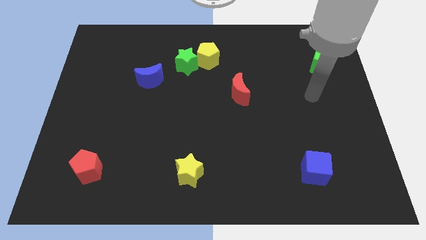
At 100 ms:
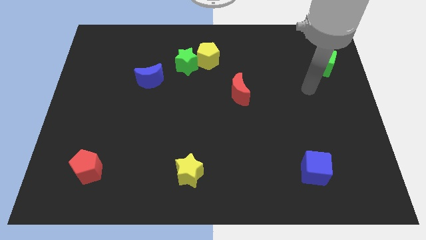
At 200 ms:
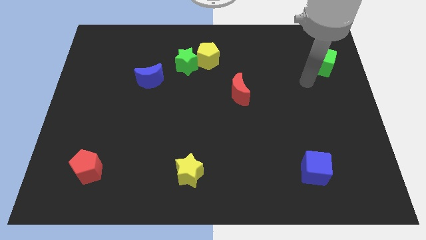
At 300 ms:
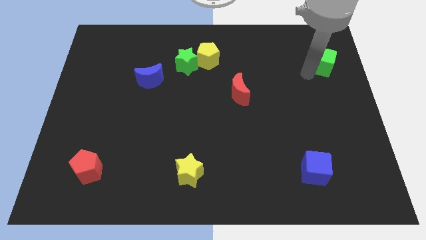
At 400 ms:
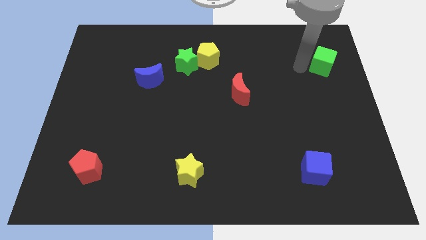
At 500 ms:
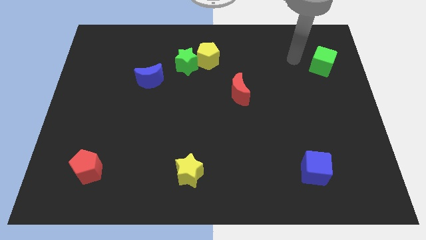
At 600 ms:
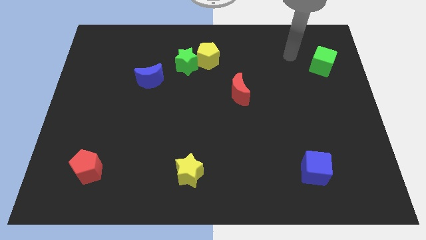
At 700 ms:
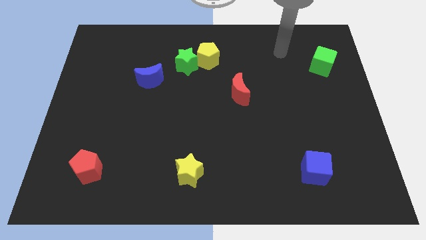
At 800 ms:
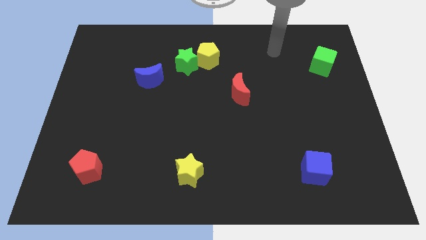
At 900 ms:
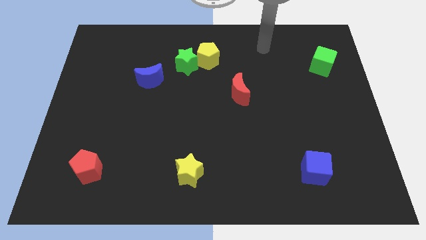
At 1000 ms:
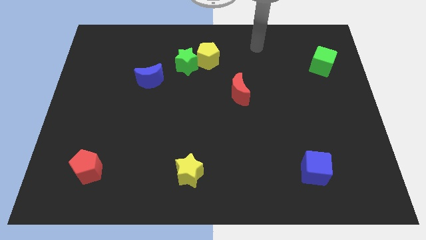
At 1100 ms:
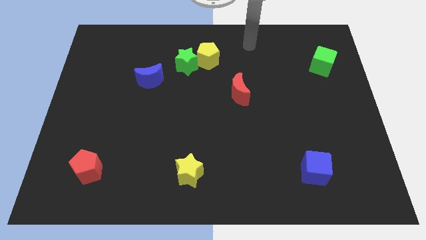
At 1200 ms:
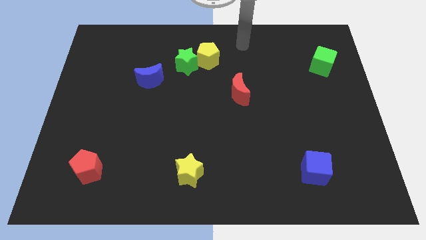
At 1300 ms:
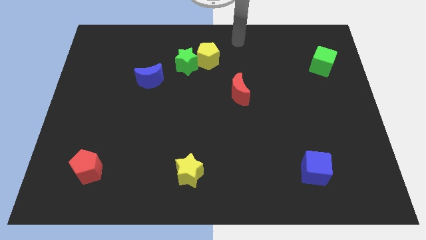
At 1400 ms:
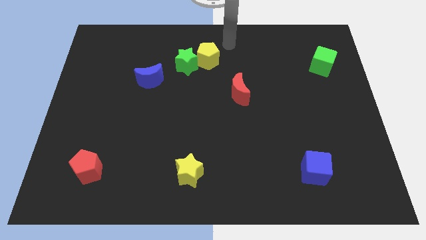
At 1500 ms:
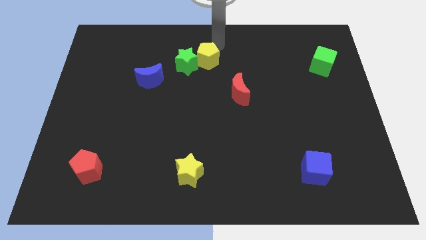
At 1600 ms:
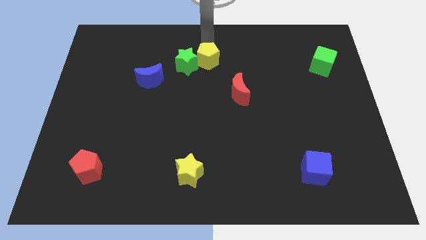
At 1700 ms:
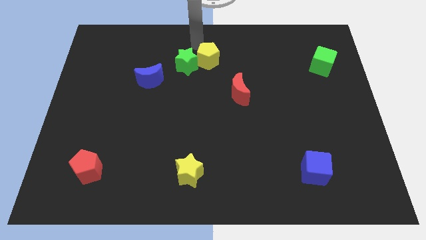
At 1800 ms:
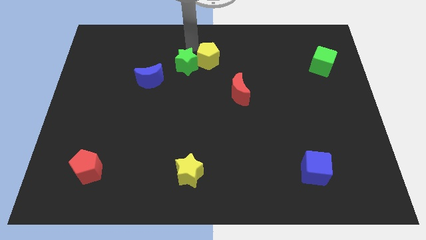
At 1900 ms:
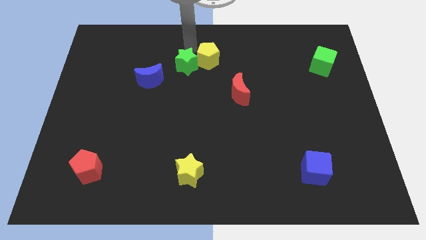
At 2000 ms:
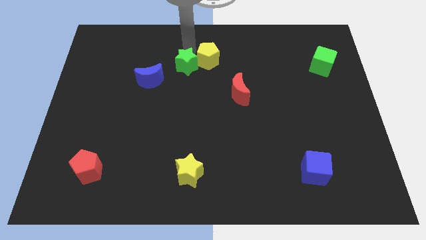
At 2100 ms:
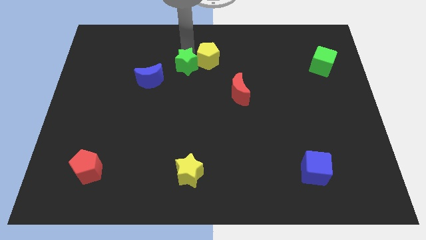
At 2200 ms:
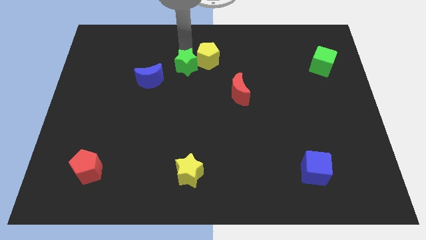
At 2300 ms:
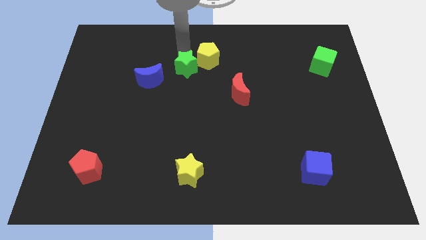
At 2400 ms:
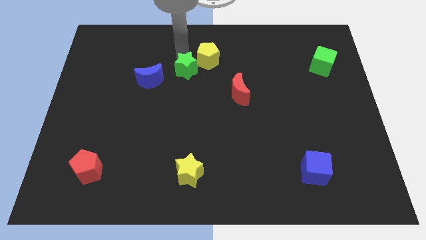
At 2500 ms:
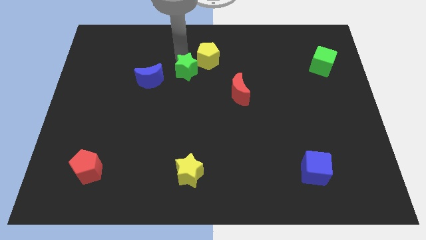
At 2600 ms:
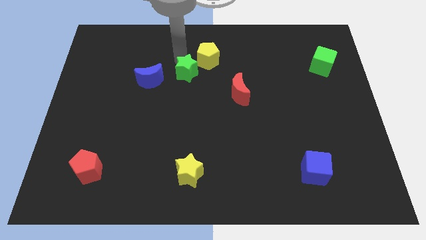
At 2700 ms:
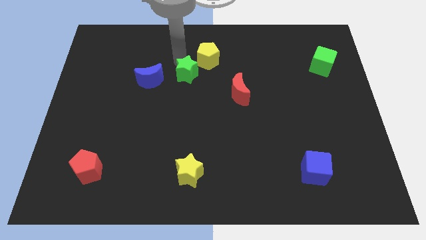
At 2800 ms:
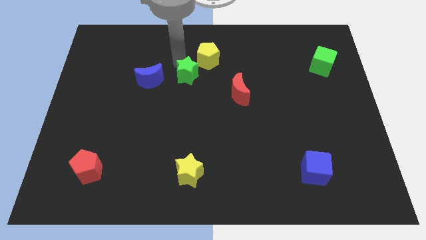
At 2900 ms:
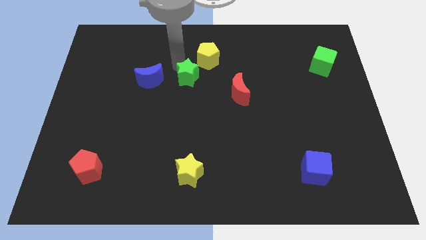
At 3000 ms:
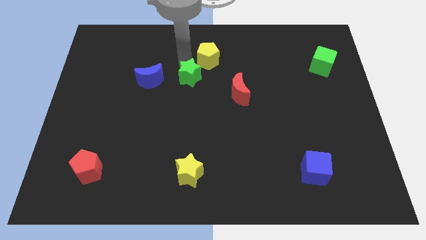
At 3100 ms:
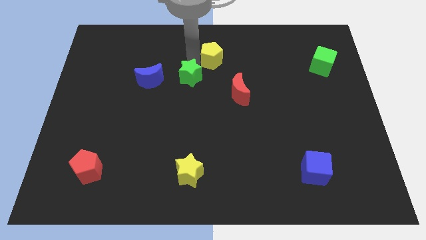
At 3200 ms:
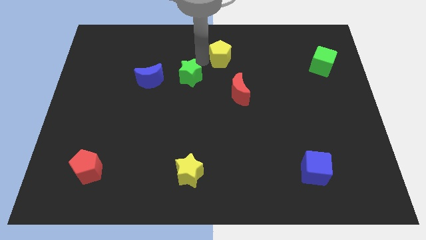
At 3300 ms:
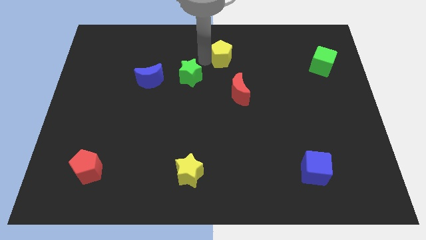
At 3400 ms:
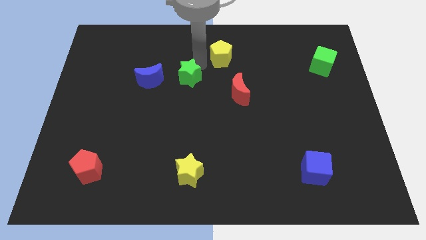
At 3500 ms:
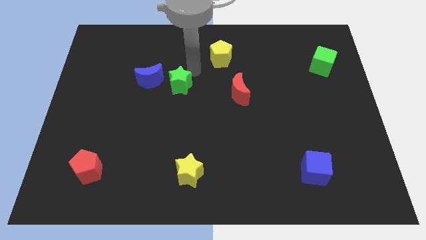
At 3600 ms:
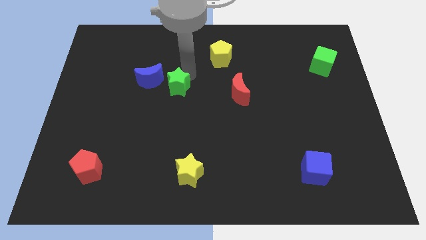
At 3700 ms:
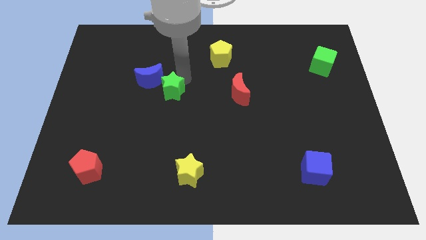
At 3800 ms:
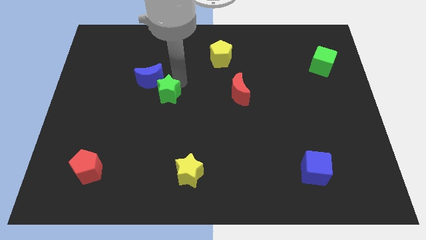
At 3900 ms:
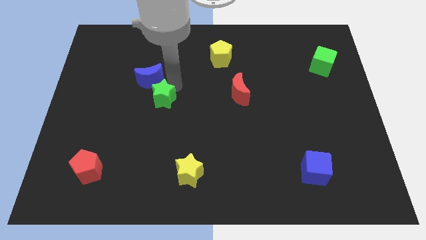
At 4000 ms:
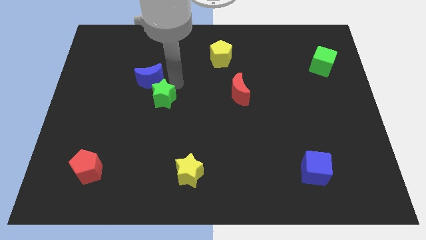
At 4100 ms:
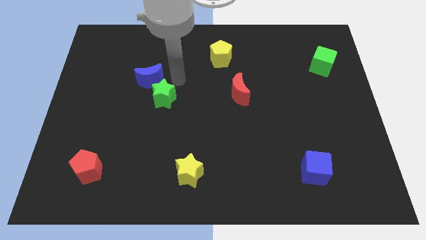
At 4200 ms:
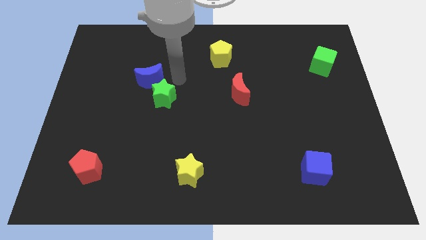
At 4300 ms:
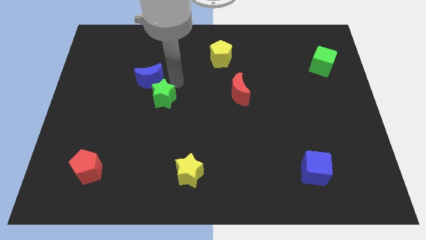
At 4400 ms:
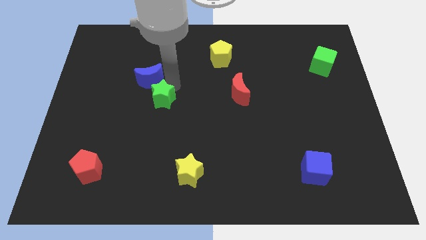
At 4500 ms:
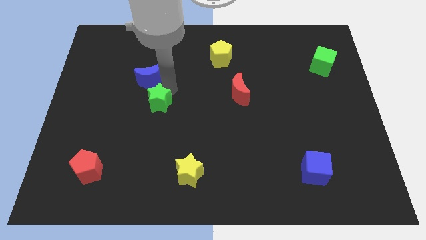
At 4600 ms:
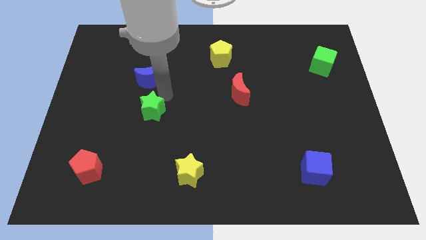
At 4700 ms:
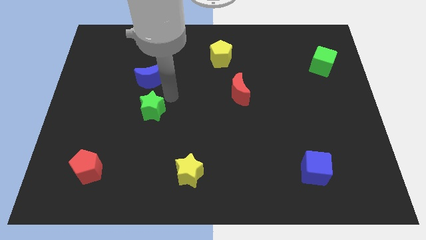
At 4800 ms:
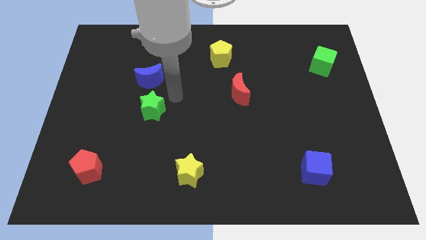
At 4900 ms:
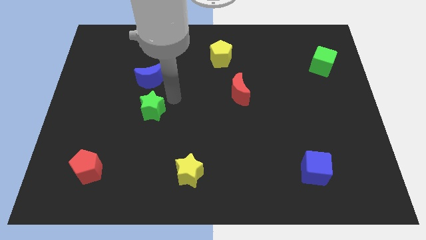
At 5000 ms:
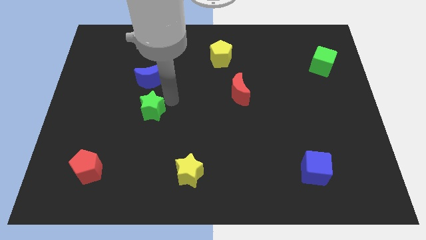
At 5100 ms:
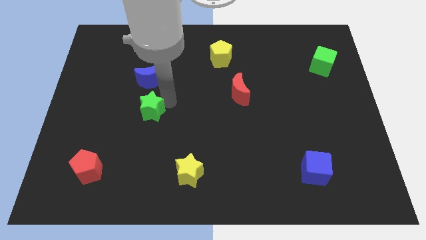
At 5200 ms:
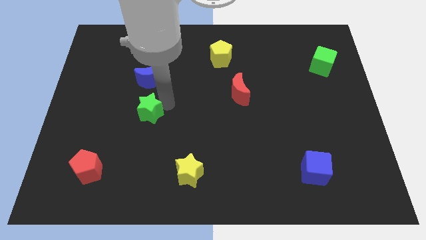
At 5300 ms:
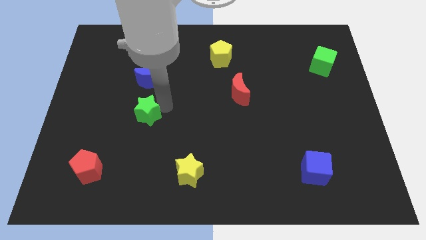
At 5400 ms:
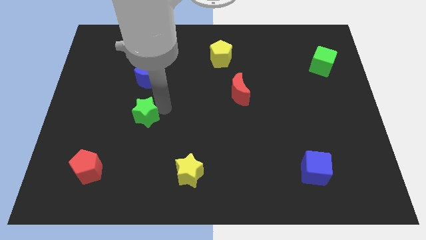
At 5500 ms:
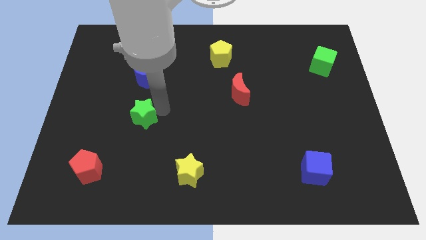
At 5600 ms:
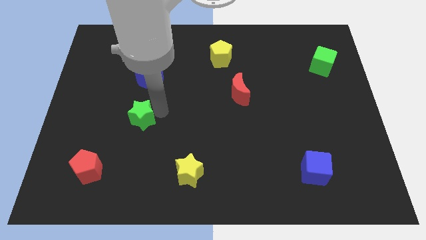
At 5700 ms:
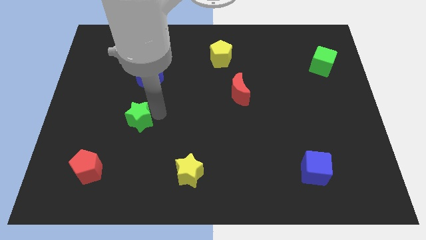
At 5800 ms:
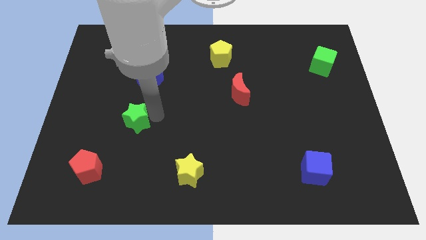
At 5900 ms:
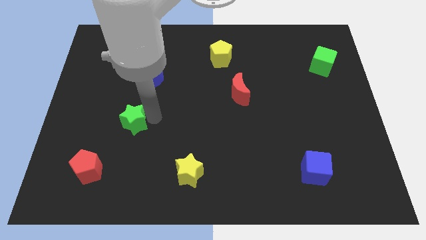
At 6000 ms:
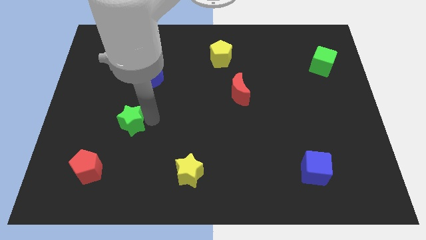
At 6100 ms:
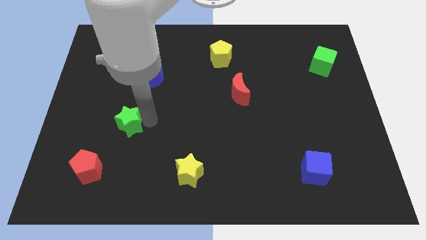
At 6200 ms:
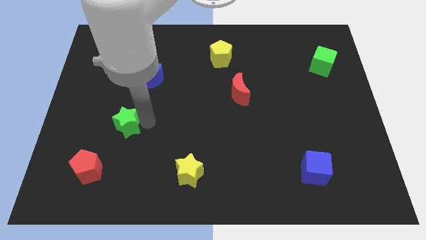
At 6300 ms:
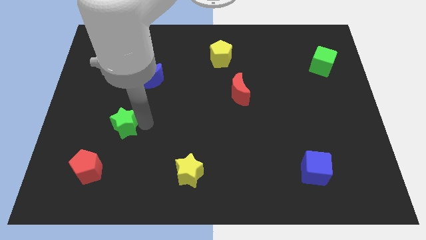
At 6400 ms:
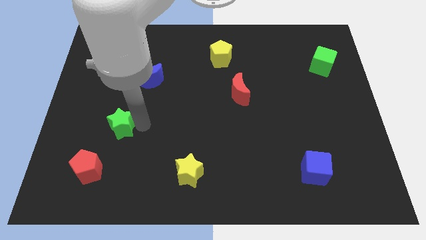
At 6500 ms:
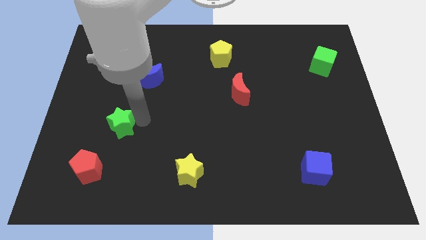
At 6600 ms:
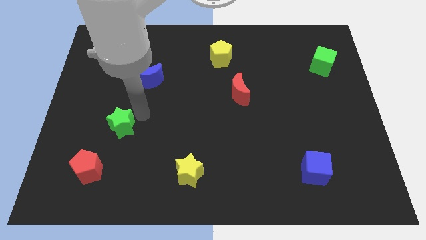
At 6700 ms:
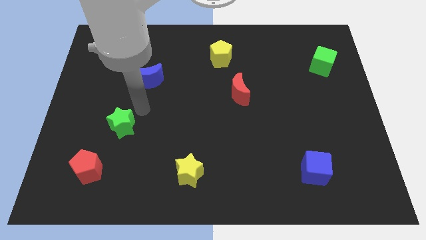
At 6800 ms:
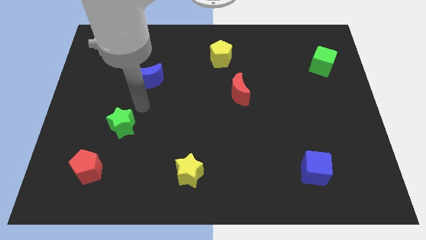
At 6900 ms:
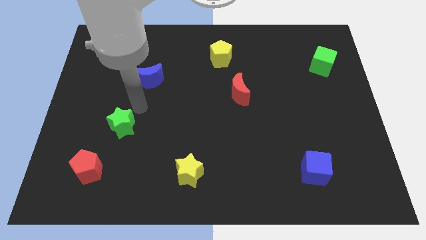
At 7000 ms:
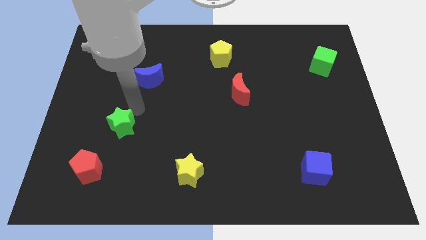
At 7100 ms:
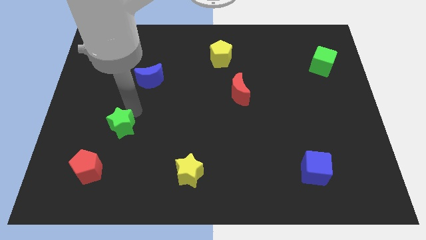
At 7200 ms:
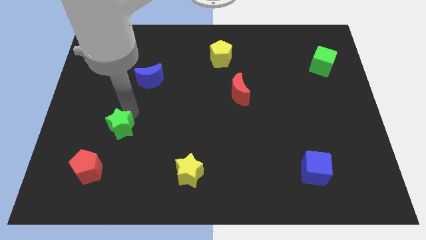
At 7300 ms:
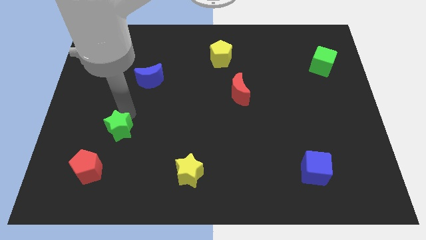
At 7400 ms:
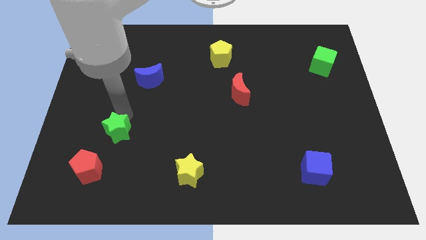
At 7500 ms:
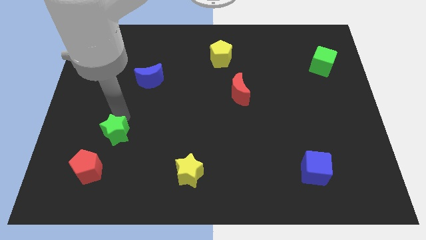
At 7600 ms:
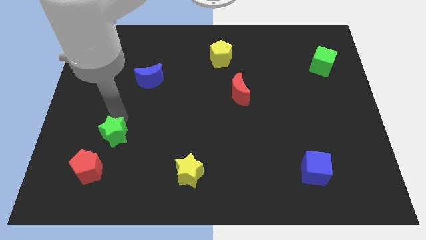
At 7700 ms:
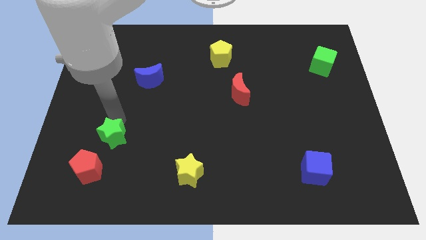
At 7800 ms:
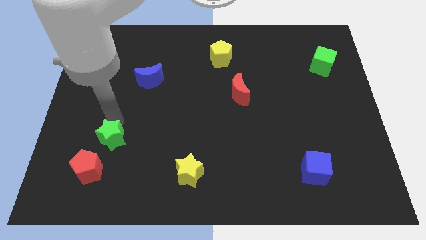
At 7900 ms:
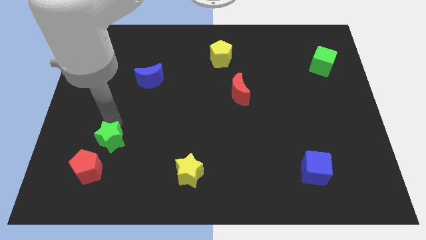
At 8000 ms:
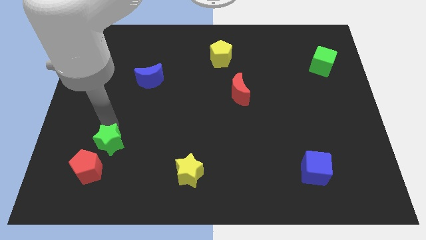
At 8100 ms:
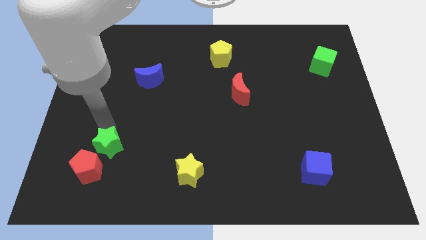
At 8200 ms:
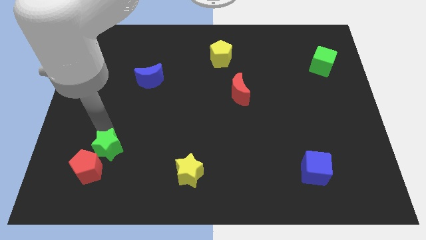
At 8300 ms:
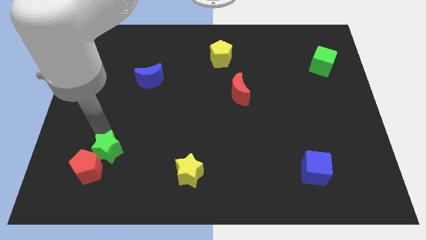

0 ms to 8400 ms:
slide the green star close to the red pentagon
